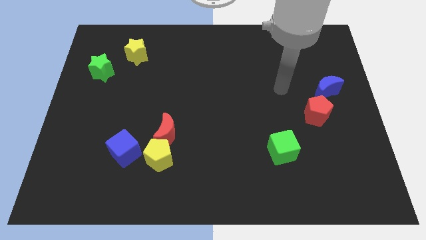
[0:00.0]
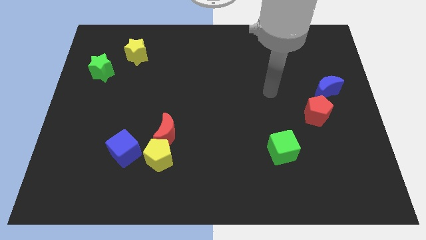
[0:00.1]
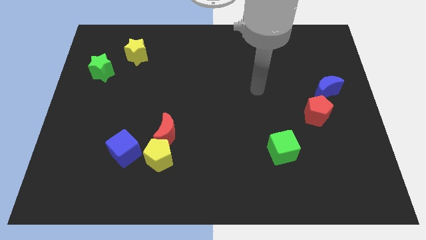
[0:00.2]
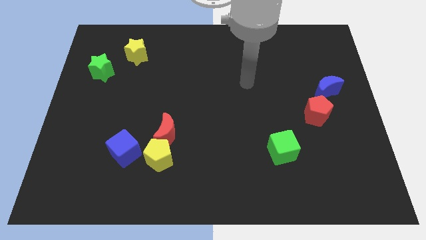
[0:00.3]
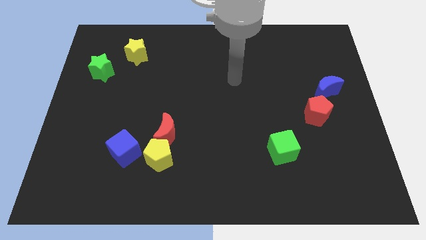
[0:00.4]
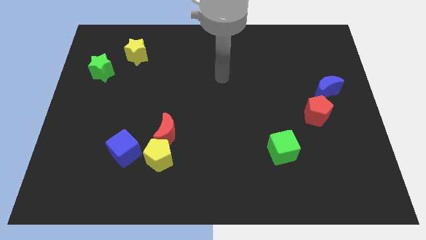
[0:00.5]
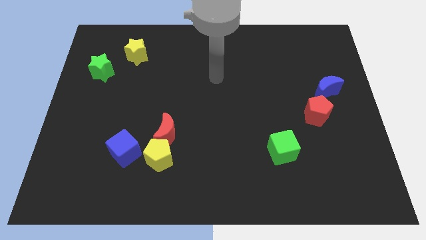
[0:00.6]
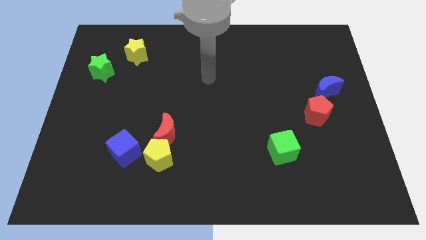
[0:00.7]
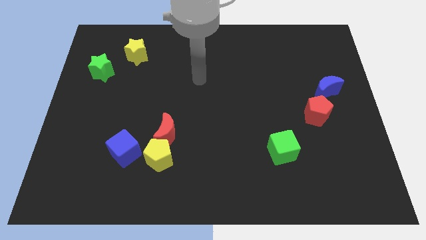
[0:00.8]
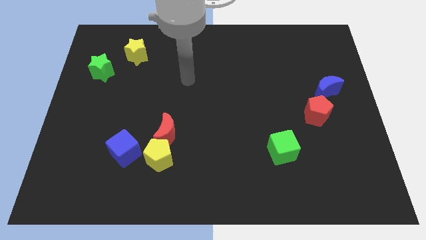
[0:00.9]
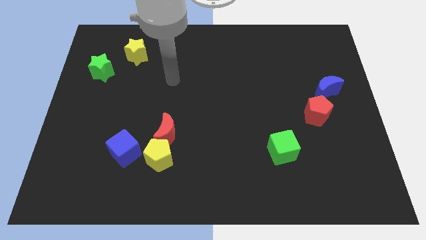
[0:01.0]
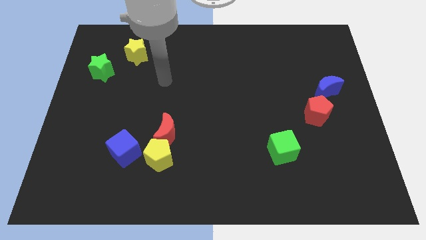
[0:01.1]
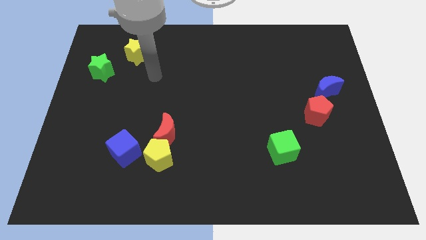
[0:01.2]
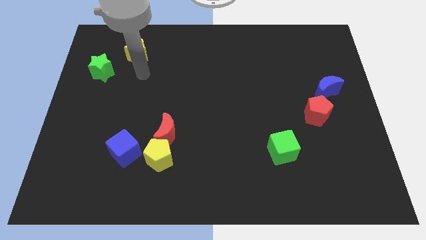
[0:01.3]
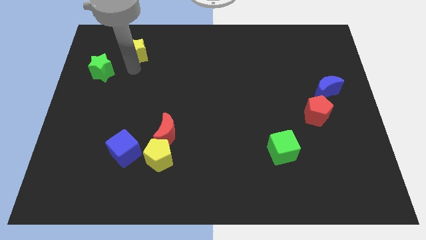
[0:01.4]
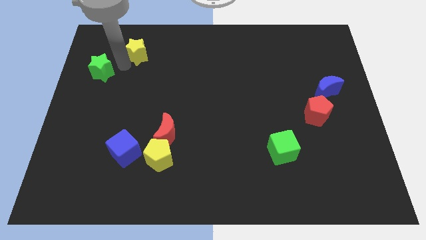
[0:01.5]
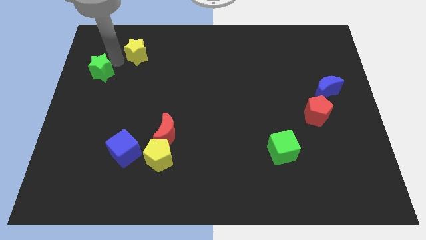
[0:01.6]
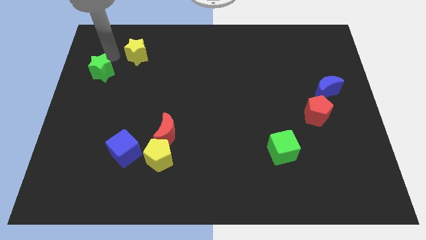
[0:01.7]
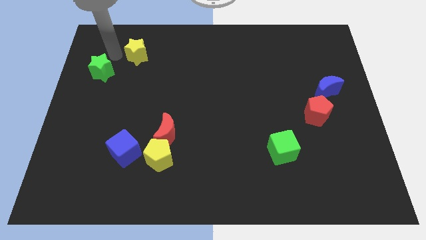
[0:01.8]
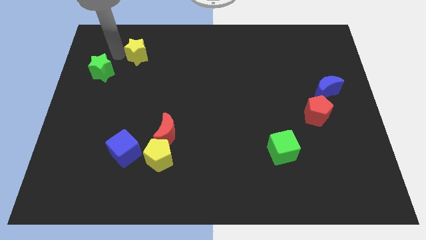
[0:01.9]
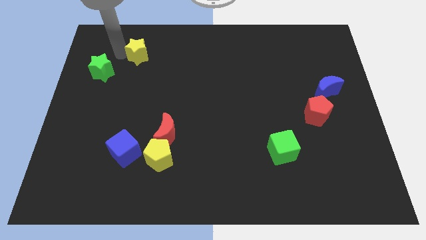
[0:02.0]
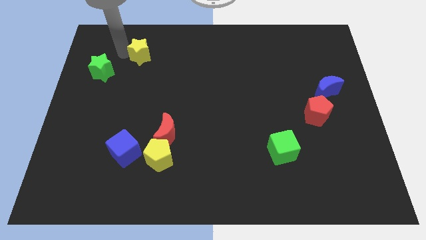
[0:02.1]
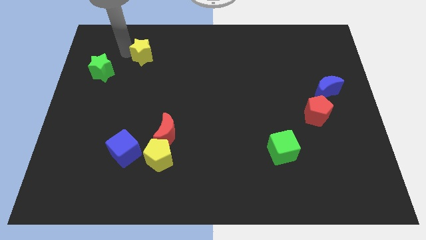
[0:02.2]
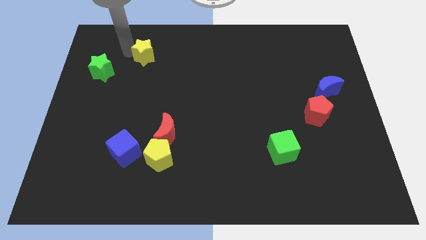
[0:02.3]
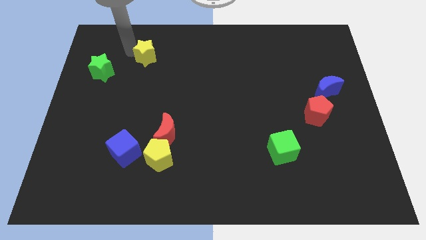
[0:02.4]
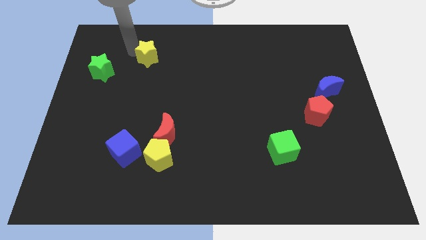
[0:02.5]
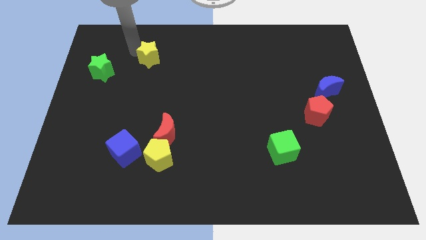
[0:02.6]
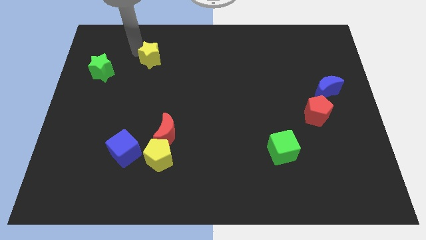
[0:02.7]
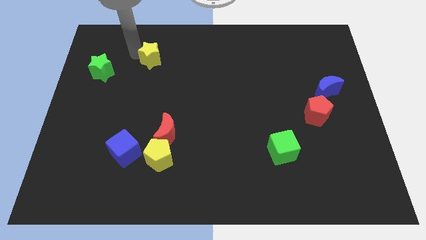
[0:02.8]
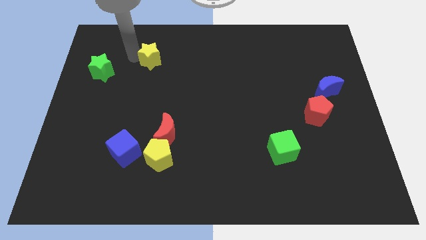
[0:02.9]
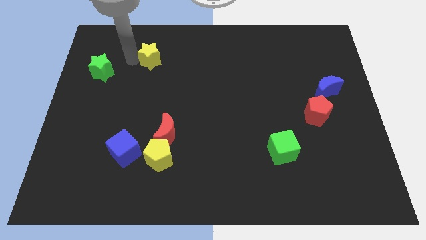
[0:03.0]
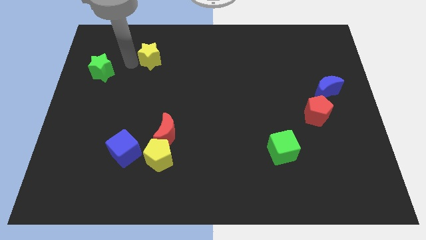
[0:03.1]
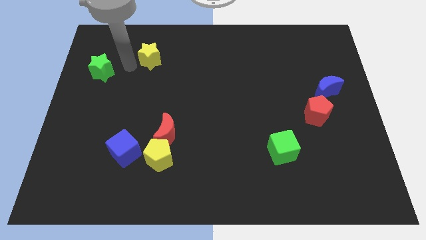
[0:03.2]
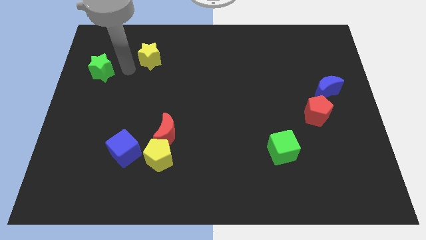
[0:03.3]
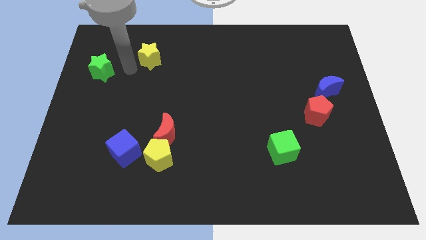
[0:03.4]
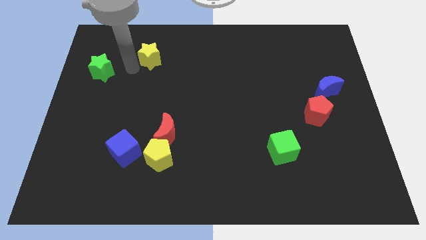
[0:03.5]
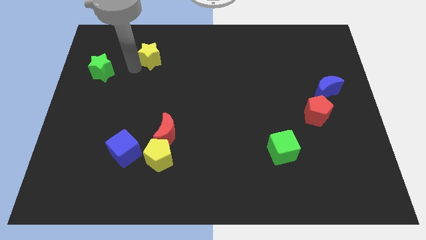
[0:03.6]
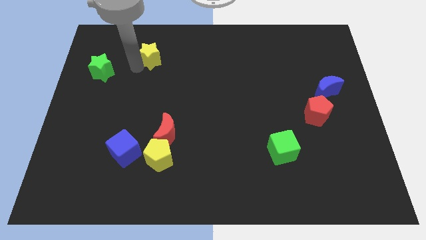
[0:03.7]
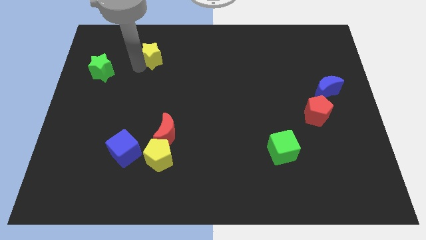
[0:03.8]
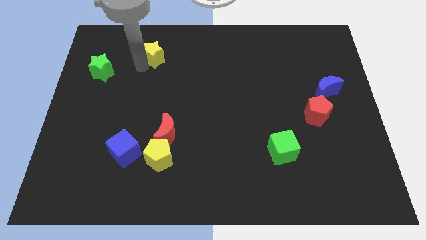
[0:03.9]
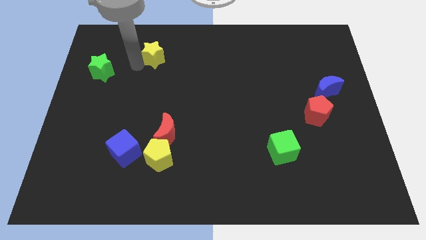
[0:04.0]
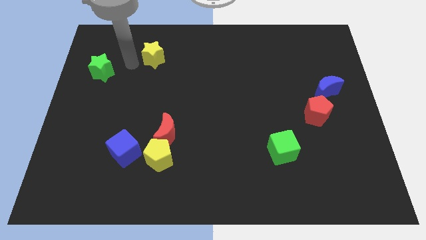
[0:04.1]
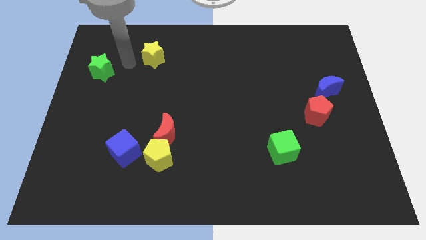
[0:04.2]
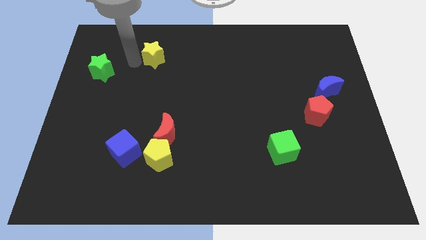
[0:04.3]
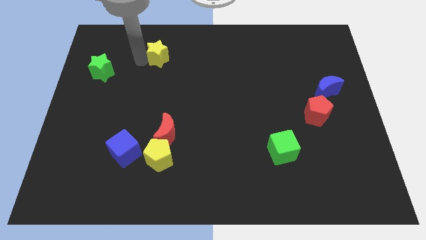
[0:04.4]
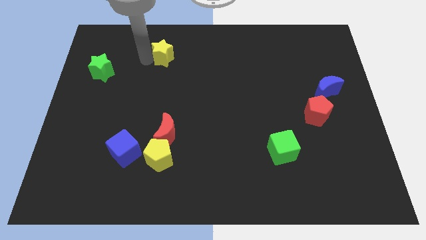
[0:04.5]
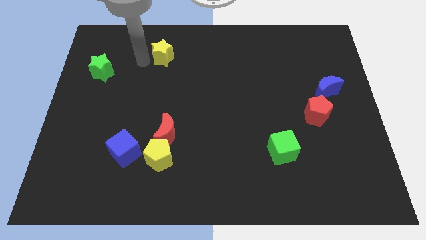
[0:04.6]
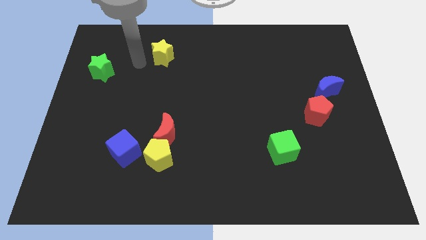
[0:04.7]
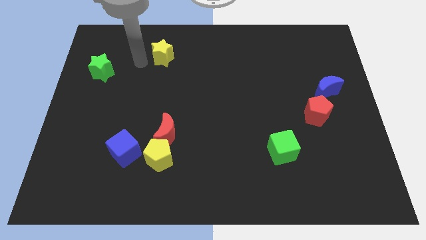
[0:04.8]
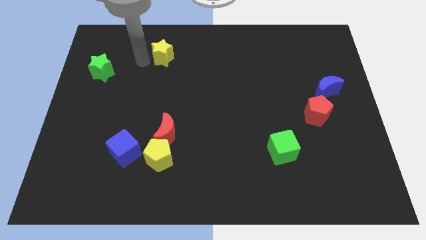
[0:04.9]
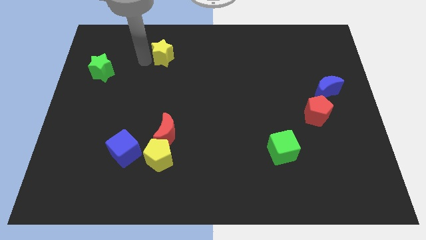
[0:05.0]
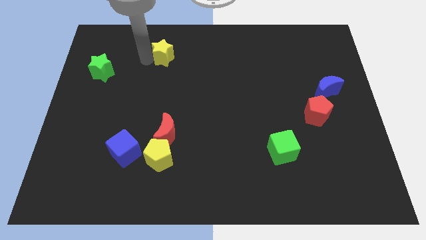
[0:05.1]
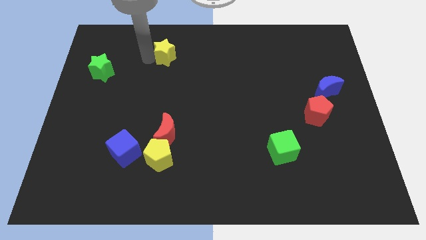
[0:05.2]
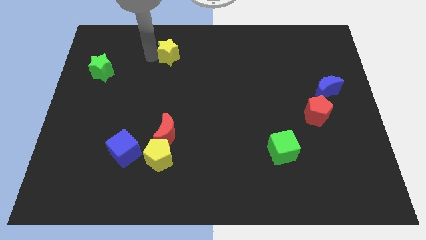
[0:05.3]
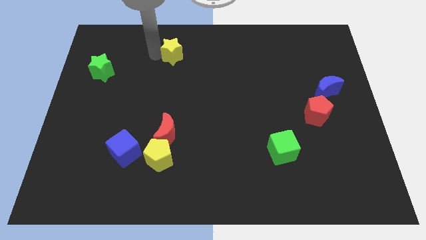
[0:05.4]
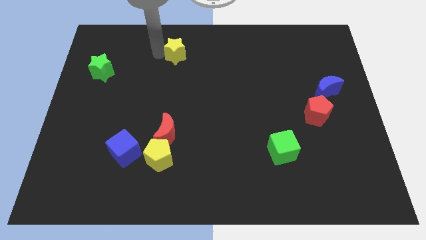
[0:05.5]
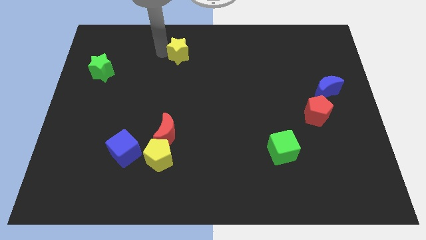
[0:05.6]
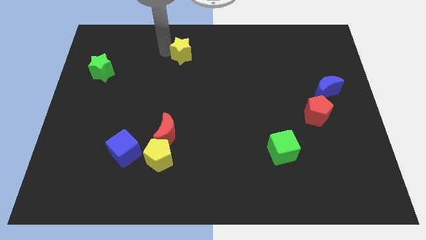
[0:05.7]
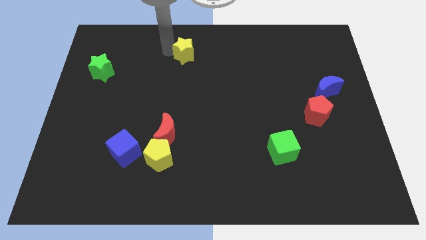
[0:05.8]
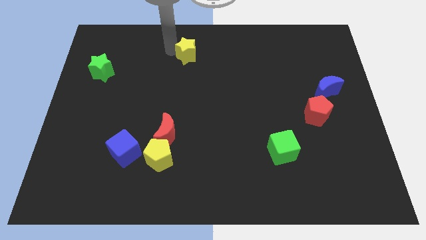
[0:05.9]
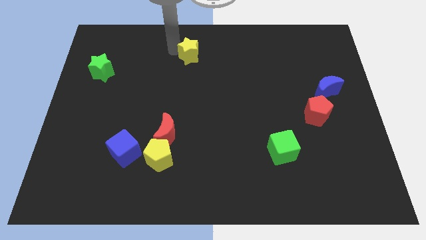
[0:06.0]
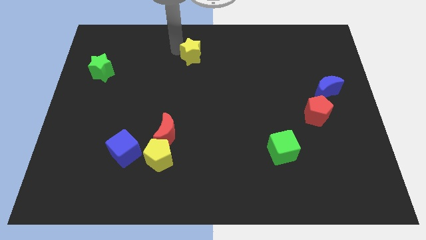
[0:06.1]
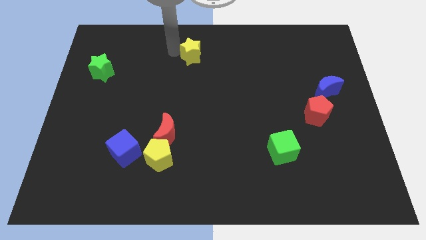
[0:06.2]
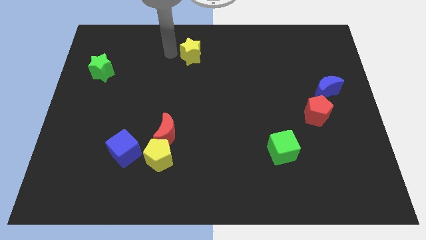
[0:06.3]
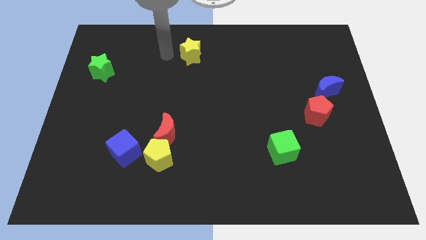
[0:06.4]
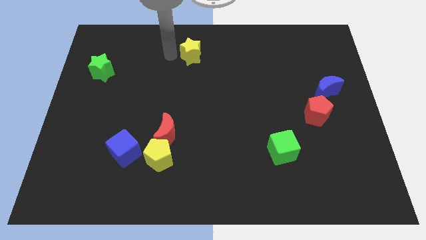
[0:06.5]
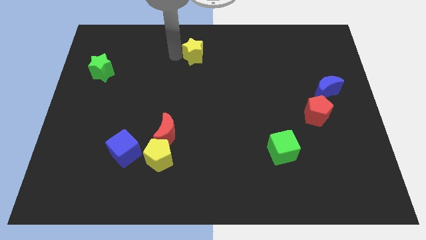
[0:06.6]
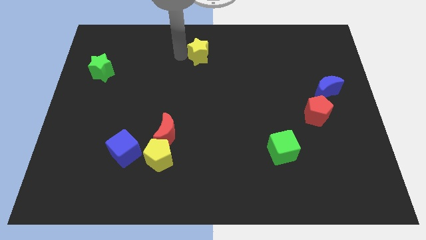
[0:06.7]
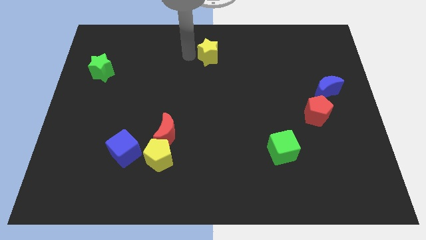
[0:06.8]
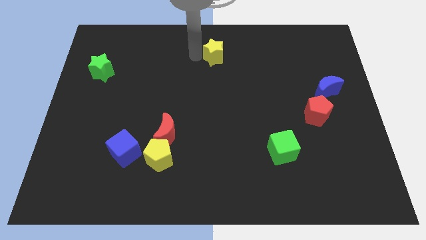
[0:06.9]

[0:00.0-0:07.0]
move the yellow star right

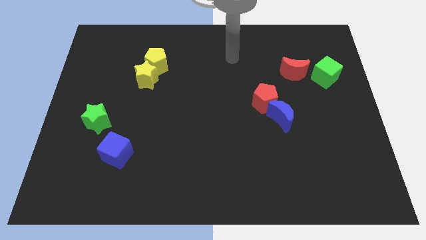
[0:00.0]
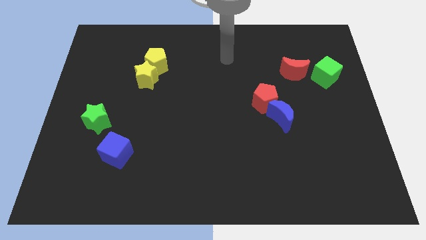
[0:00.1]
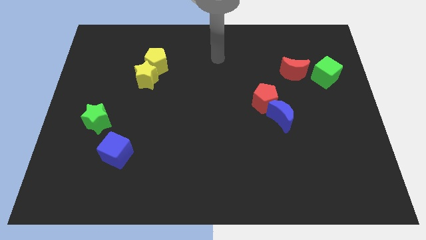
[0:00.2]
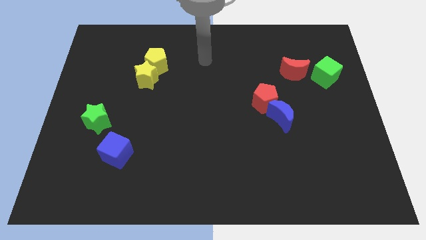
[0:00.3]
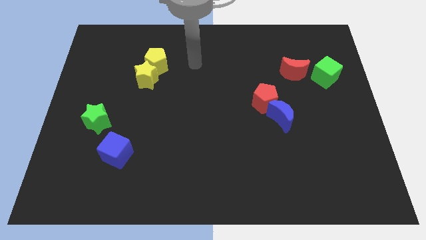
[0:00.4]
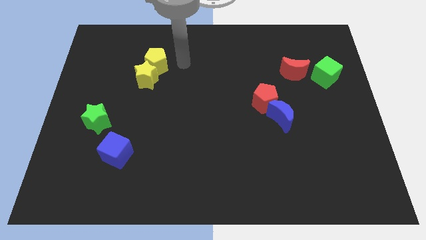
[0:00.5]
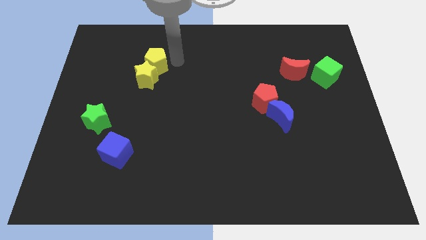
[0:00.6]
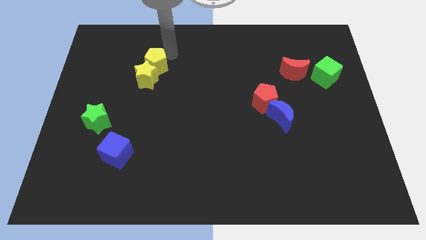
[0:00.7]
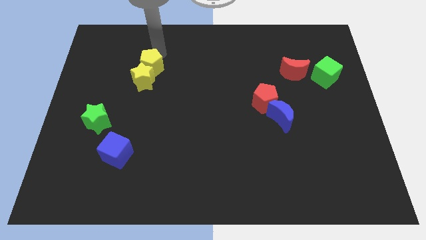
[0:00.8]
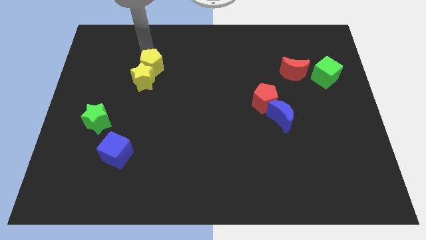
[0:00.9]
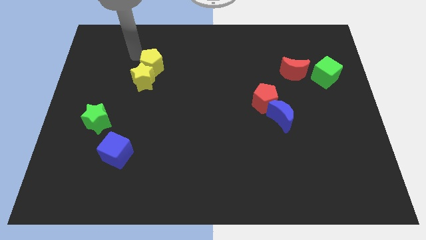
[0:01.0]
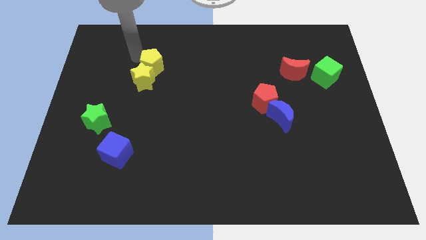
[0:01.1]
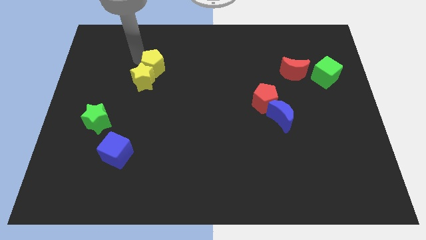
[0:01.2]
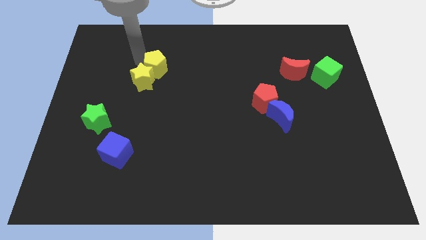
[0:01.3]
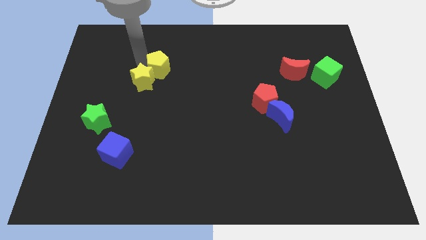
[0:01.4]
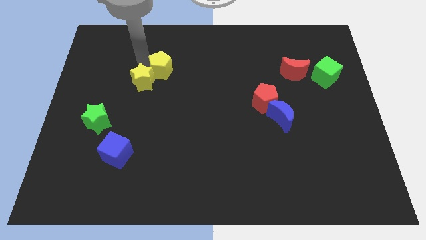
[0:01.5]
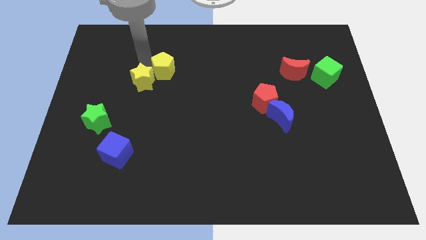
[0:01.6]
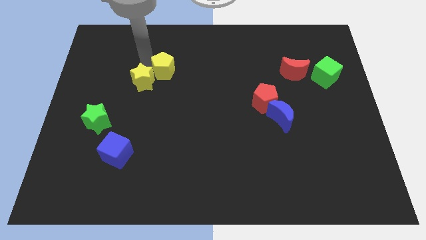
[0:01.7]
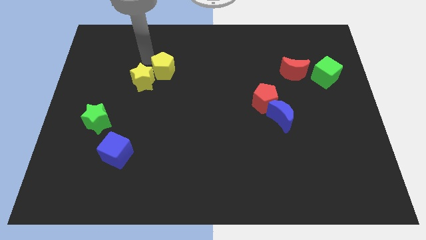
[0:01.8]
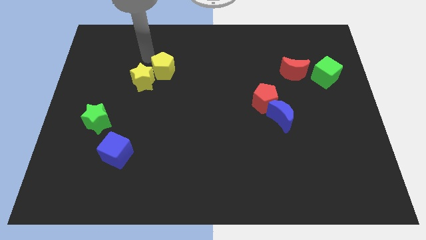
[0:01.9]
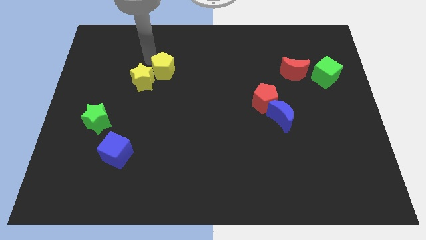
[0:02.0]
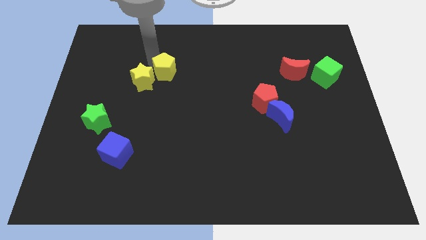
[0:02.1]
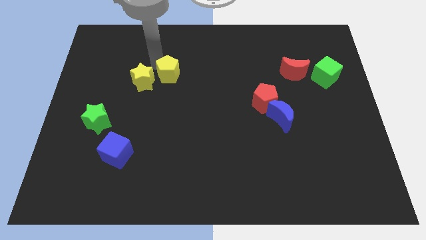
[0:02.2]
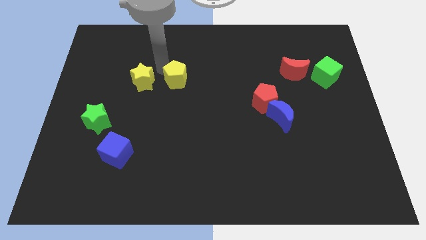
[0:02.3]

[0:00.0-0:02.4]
move the yellow pentagon a little diagonally downwards and to the right
